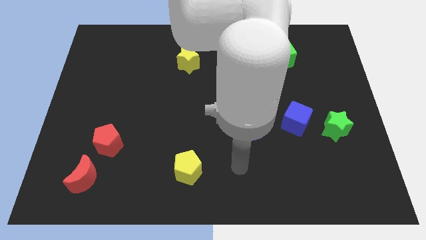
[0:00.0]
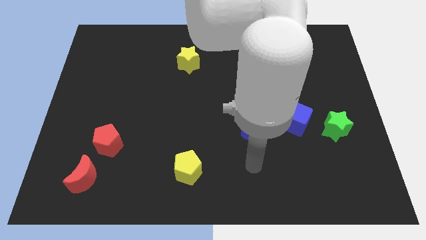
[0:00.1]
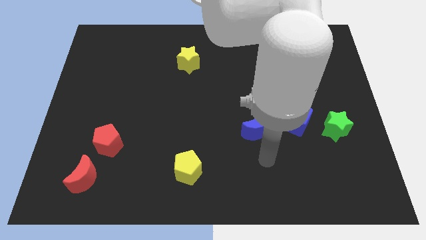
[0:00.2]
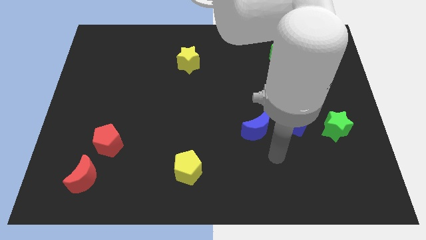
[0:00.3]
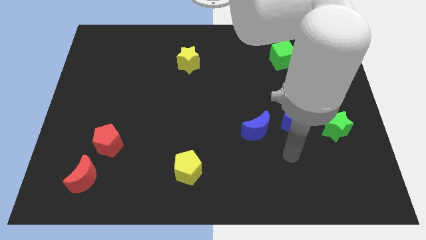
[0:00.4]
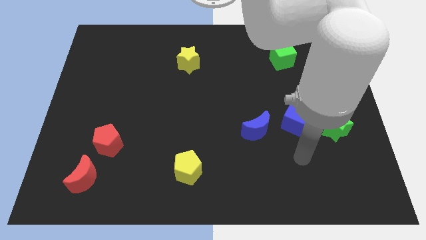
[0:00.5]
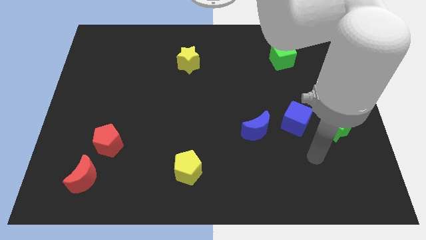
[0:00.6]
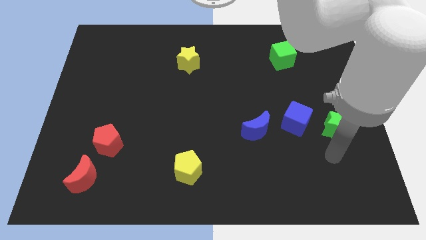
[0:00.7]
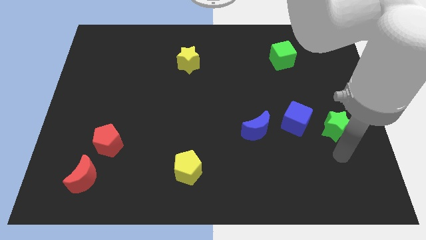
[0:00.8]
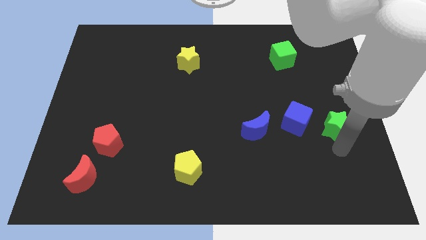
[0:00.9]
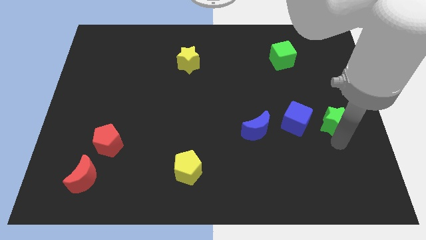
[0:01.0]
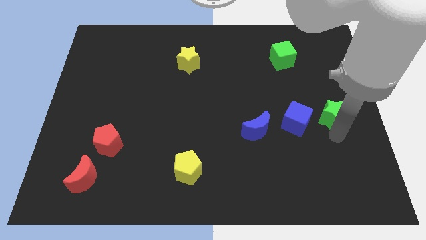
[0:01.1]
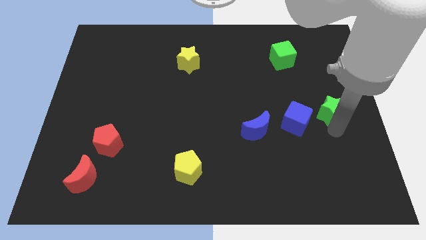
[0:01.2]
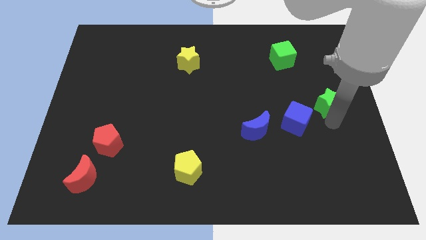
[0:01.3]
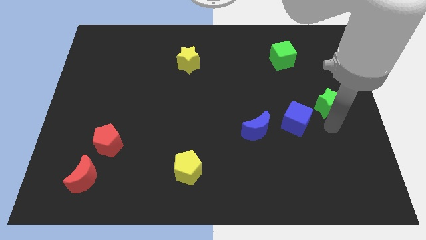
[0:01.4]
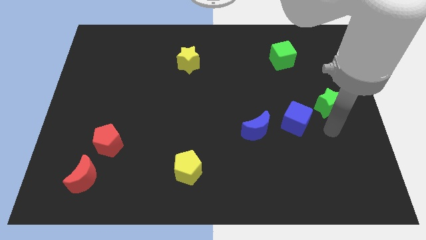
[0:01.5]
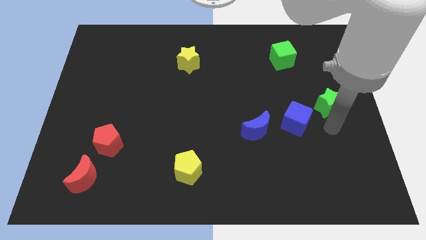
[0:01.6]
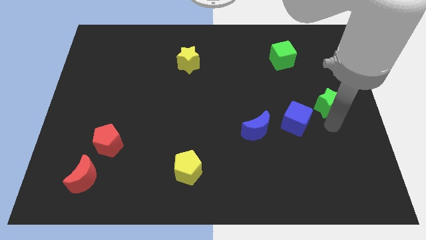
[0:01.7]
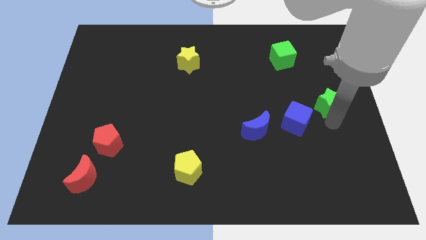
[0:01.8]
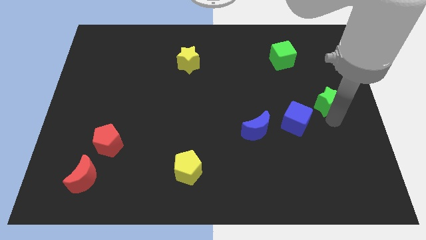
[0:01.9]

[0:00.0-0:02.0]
slide the green star up a bit

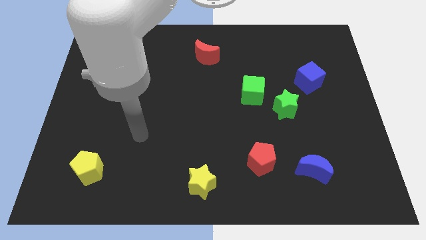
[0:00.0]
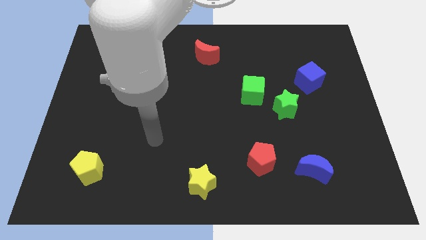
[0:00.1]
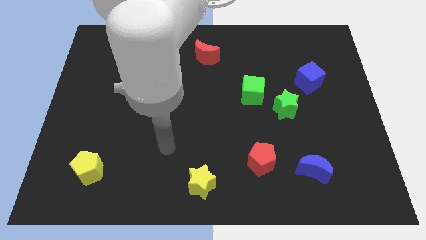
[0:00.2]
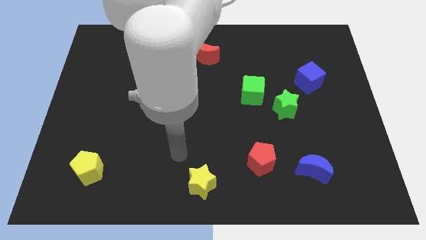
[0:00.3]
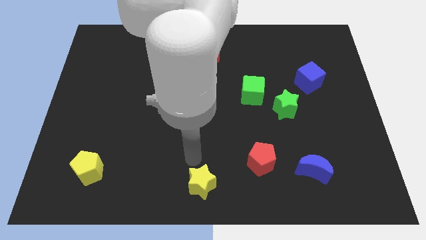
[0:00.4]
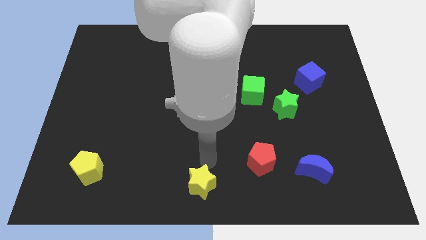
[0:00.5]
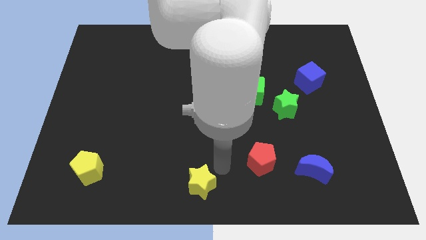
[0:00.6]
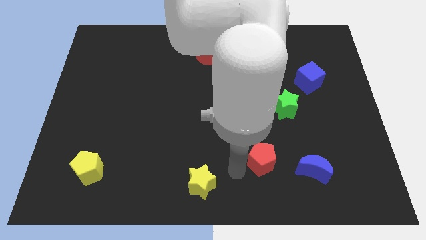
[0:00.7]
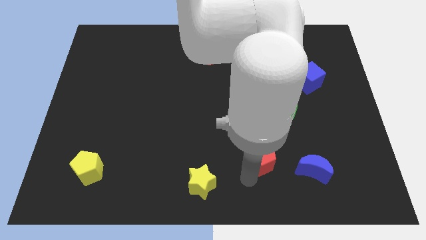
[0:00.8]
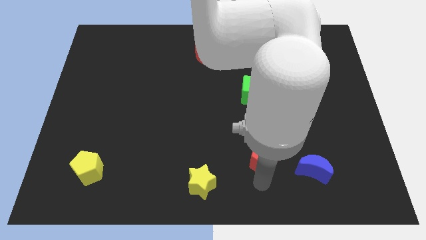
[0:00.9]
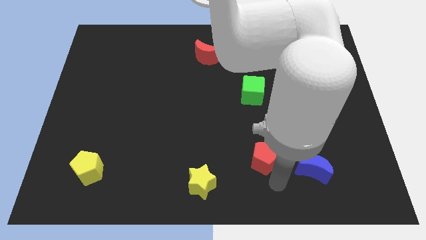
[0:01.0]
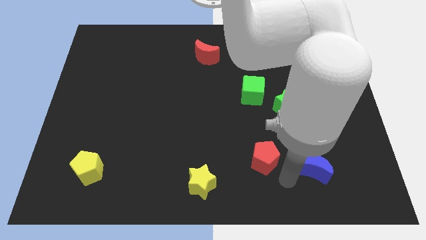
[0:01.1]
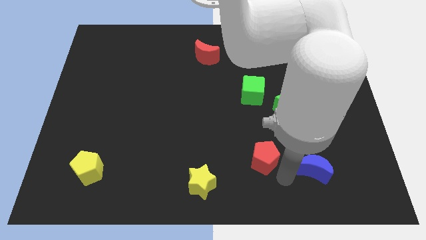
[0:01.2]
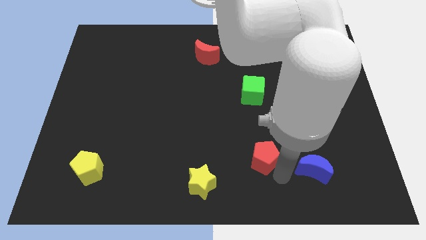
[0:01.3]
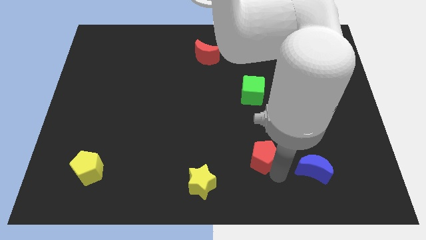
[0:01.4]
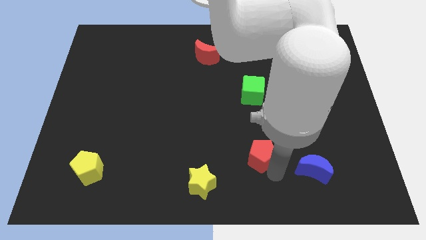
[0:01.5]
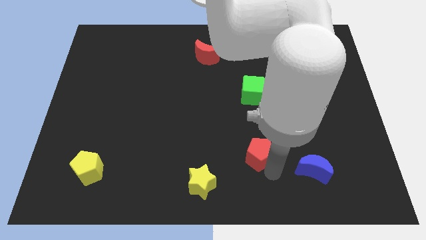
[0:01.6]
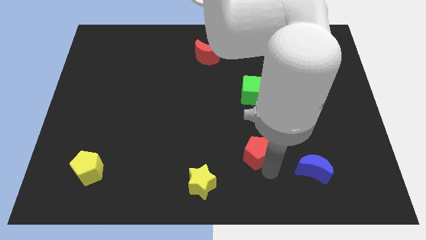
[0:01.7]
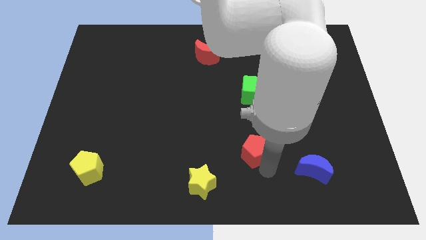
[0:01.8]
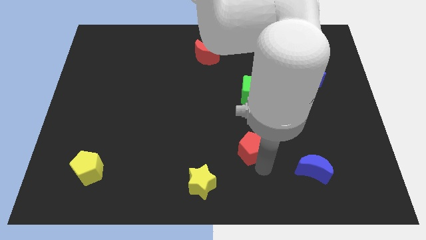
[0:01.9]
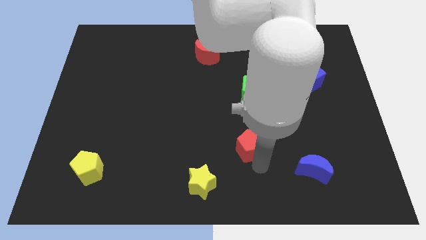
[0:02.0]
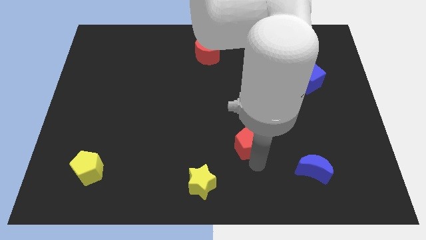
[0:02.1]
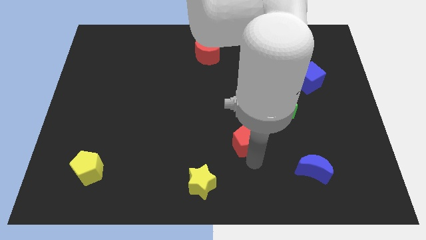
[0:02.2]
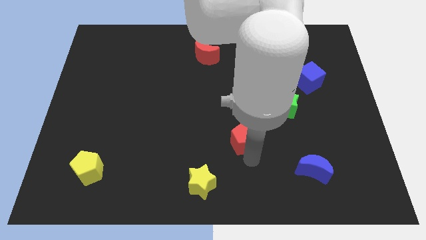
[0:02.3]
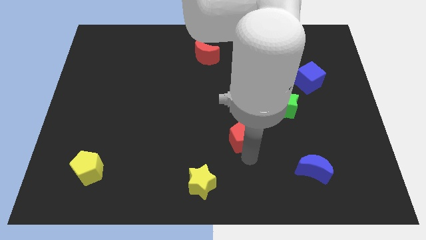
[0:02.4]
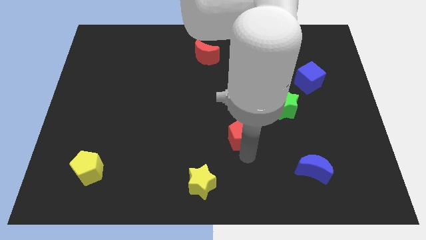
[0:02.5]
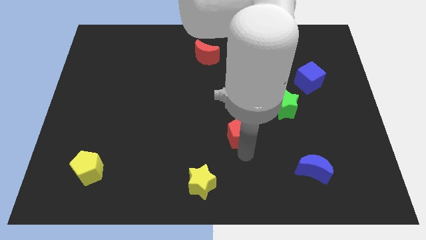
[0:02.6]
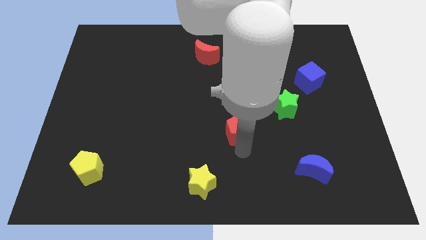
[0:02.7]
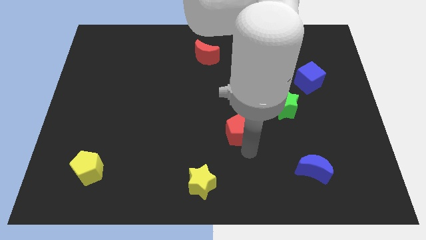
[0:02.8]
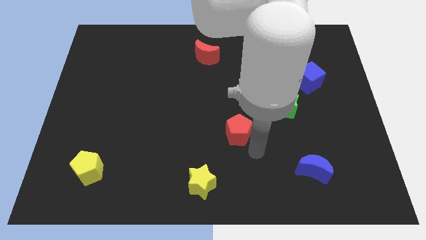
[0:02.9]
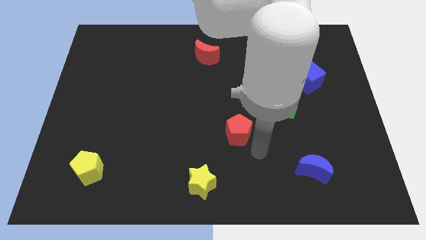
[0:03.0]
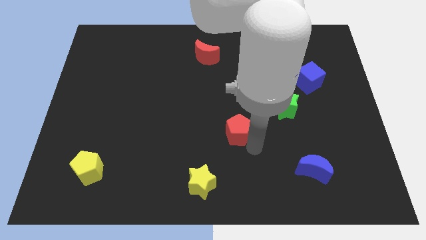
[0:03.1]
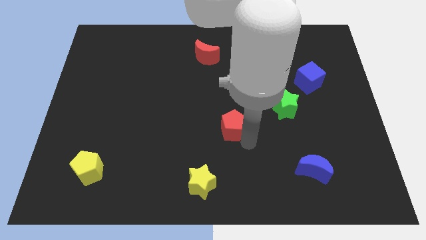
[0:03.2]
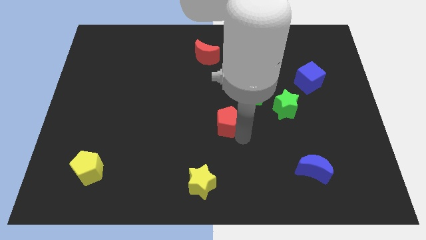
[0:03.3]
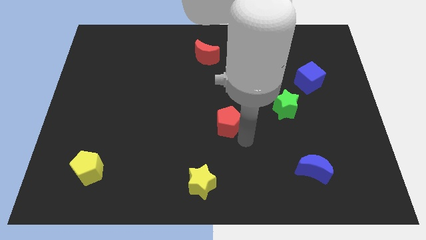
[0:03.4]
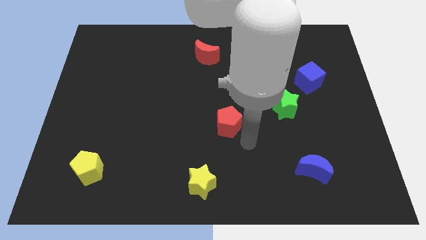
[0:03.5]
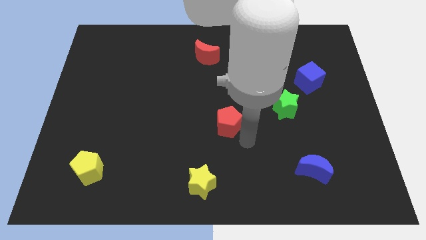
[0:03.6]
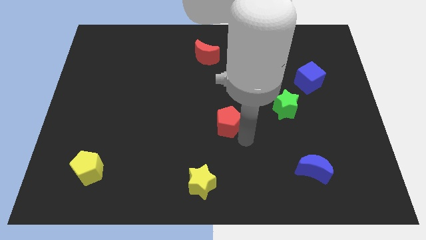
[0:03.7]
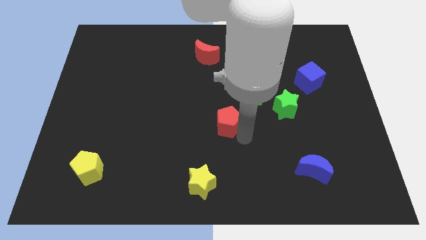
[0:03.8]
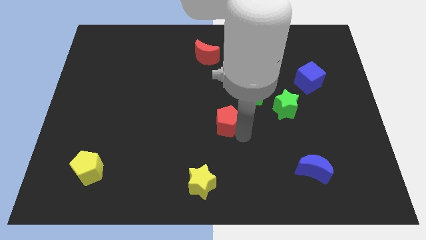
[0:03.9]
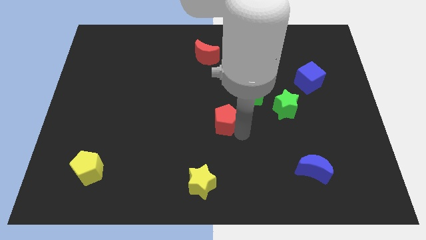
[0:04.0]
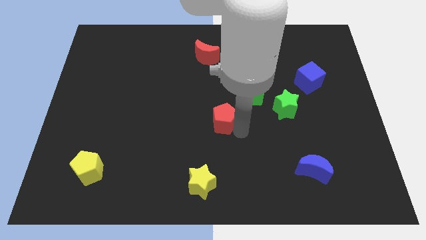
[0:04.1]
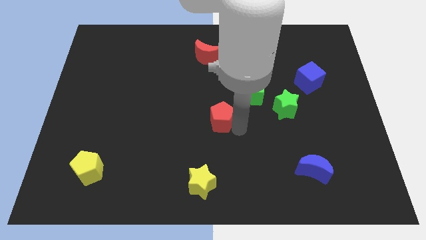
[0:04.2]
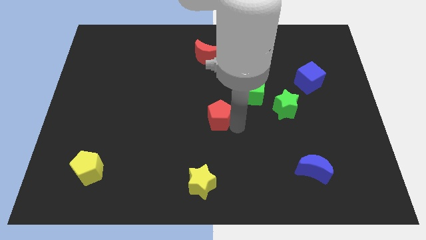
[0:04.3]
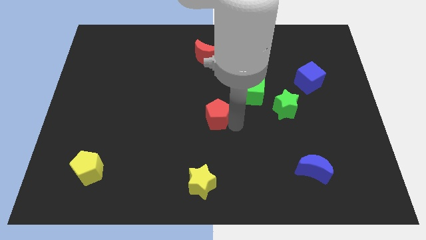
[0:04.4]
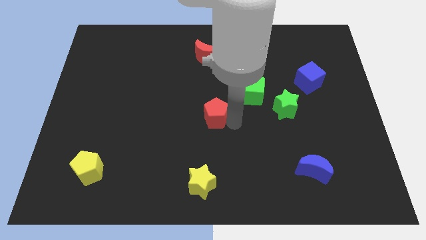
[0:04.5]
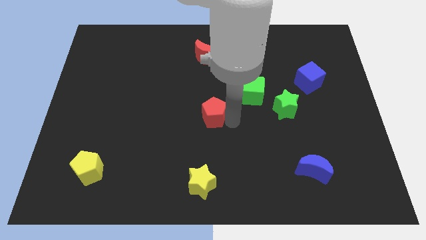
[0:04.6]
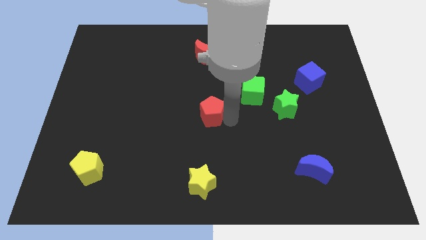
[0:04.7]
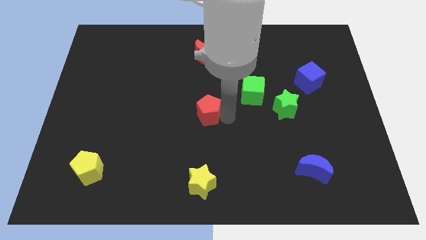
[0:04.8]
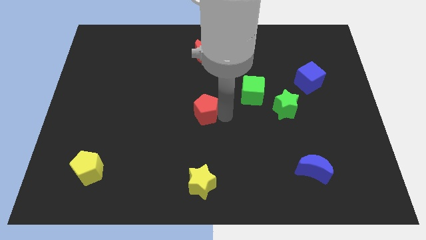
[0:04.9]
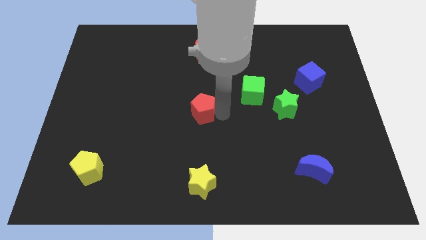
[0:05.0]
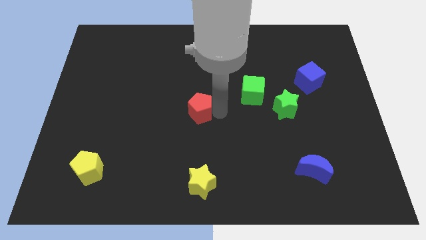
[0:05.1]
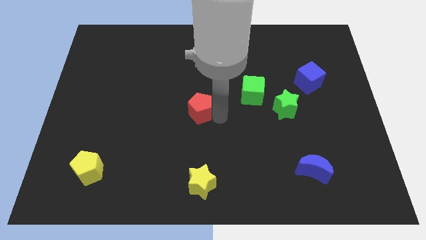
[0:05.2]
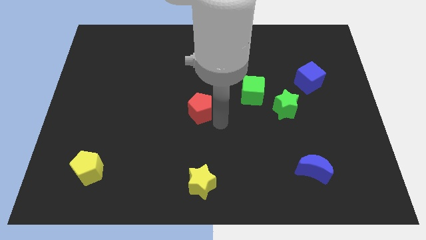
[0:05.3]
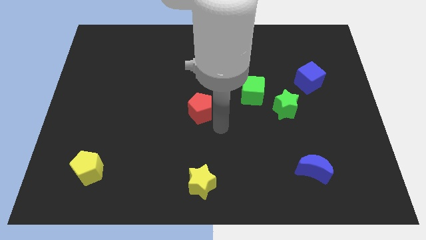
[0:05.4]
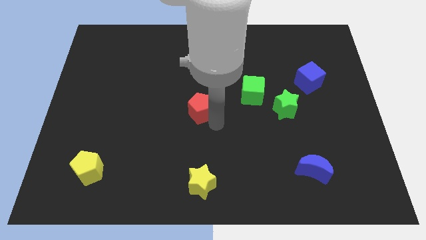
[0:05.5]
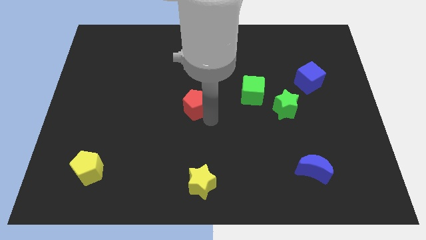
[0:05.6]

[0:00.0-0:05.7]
slide the red pentagon diagonally upwards and to the left

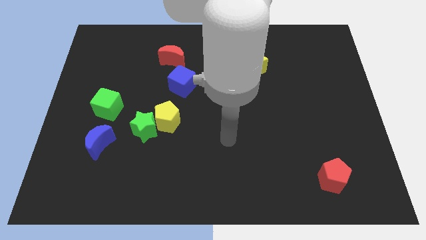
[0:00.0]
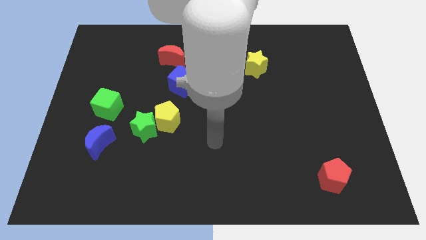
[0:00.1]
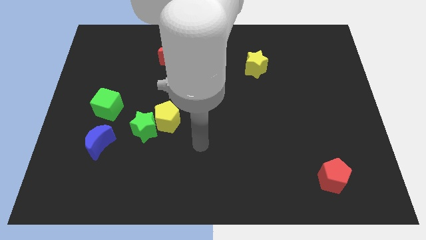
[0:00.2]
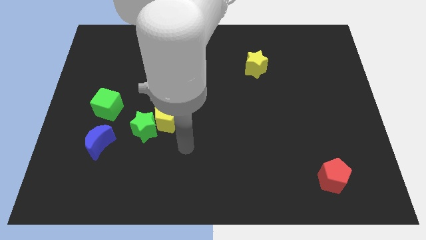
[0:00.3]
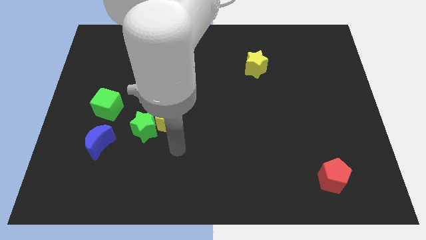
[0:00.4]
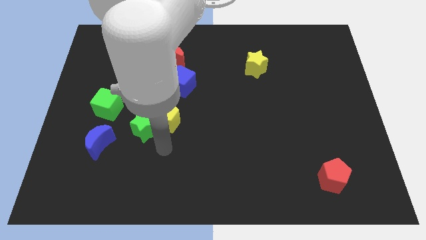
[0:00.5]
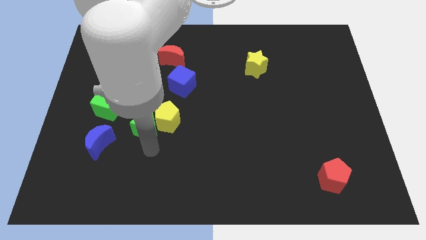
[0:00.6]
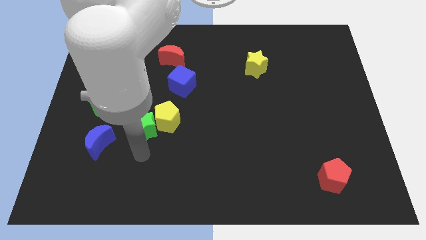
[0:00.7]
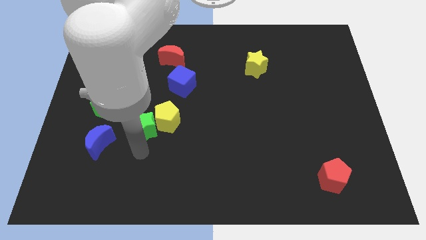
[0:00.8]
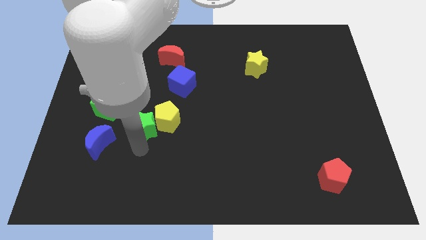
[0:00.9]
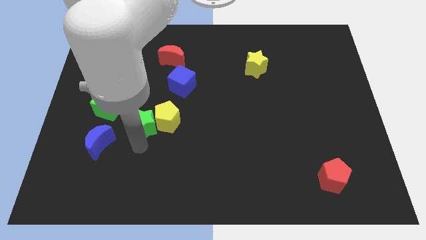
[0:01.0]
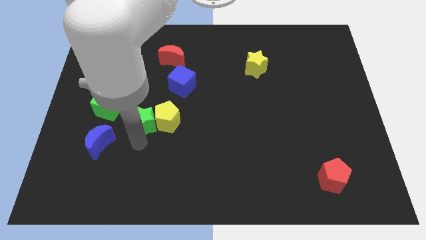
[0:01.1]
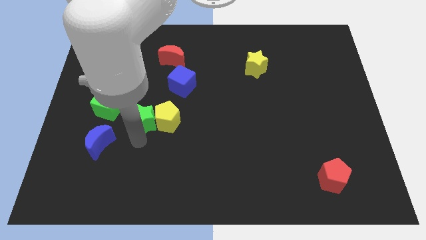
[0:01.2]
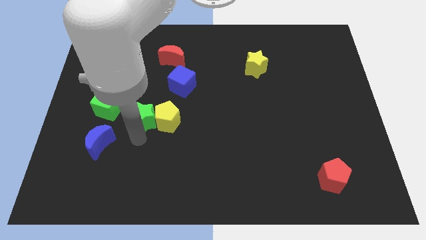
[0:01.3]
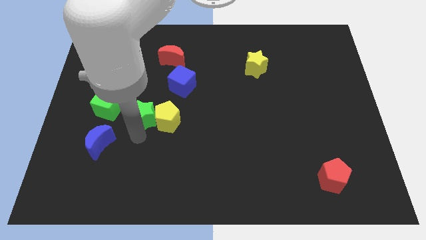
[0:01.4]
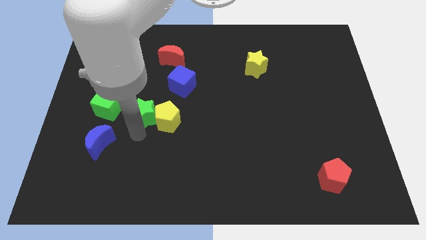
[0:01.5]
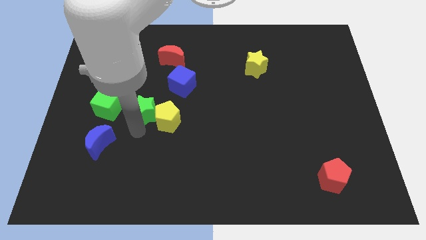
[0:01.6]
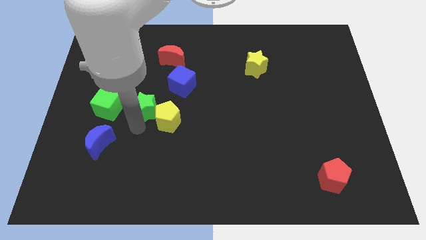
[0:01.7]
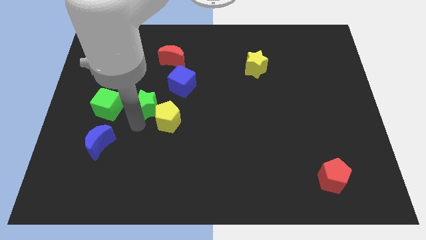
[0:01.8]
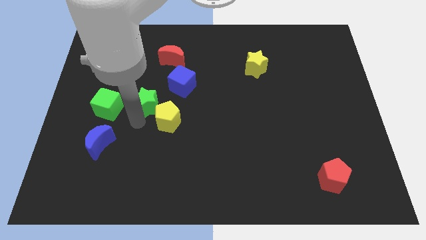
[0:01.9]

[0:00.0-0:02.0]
push the green star a little bit up
